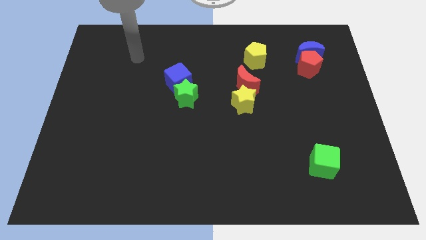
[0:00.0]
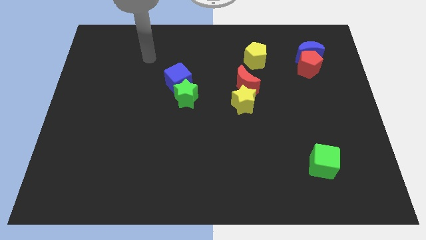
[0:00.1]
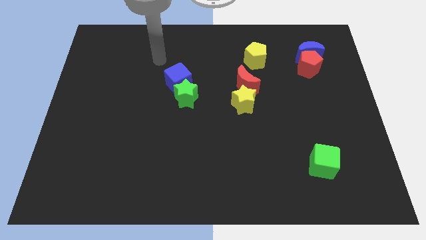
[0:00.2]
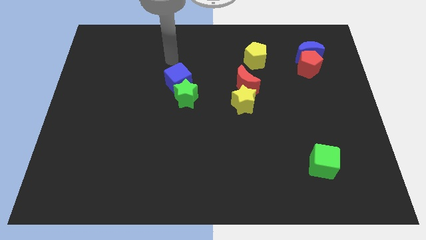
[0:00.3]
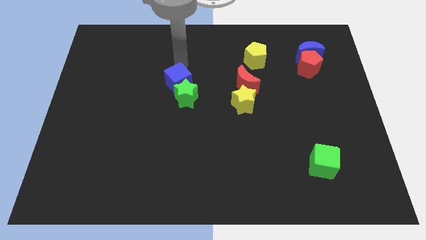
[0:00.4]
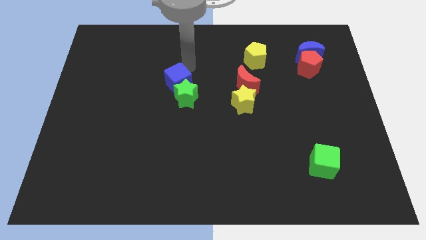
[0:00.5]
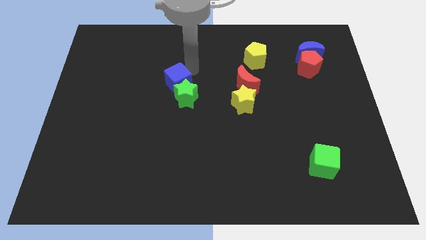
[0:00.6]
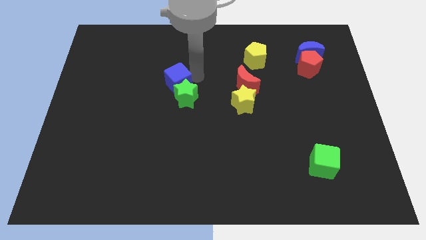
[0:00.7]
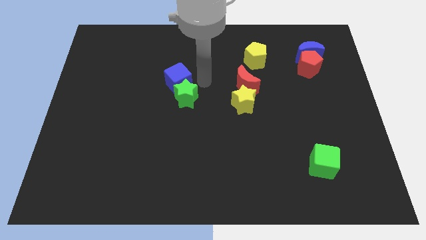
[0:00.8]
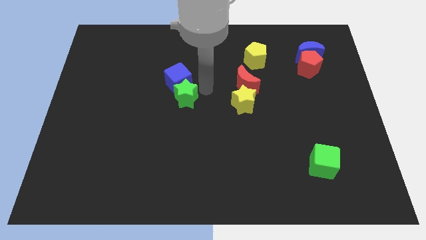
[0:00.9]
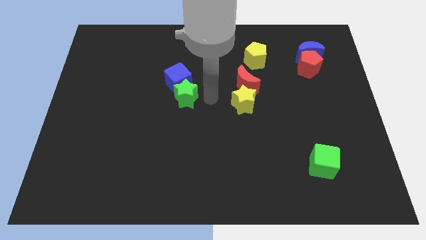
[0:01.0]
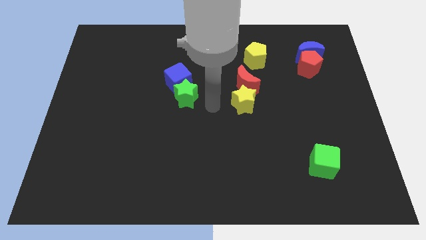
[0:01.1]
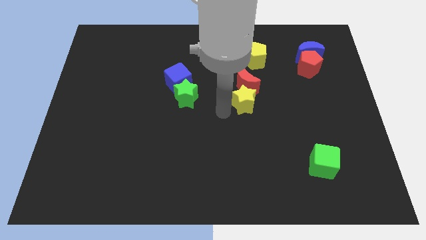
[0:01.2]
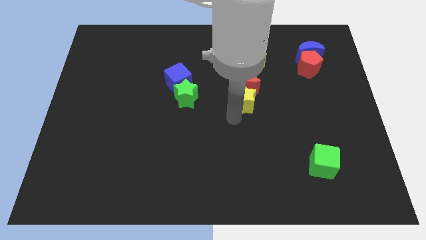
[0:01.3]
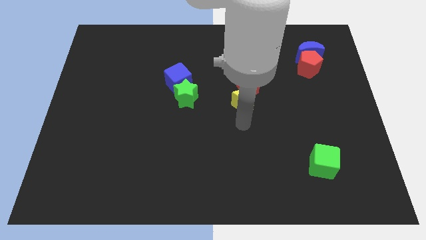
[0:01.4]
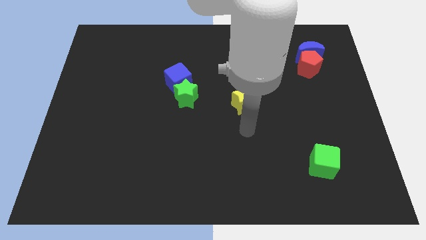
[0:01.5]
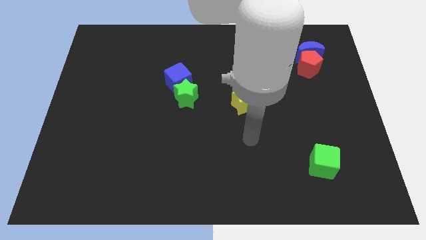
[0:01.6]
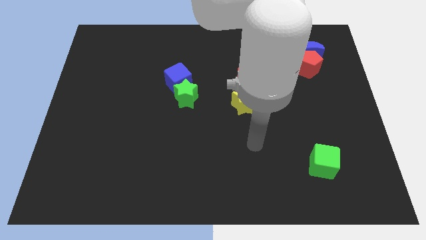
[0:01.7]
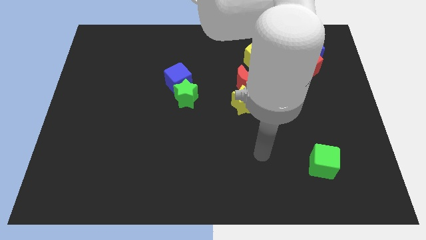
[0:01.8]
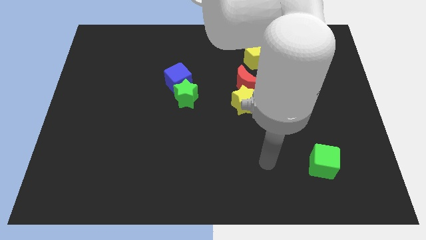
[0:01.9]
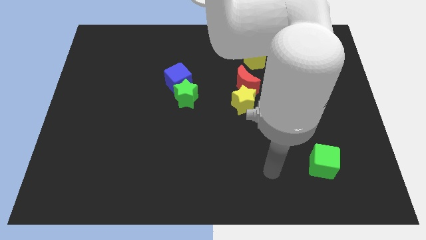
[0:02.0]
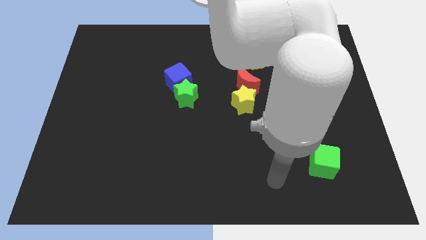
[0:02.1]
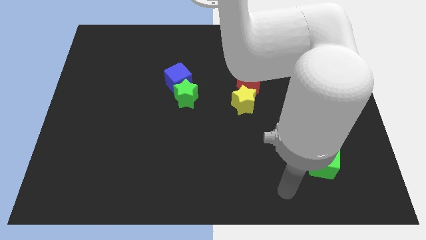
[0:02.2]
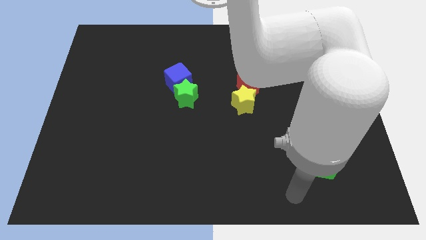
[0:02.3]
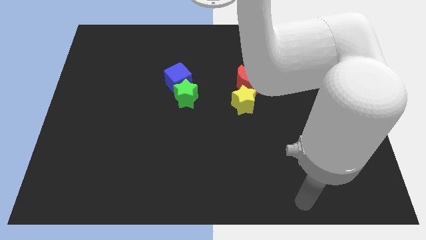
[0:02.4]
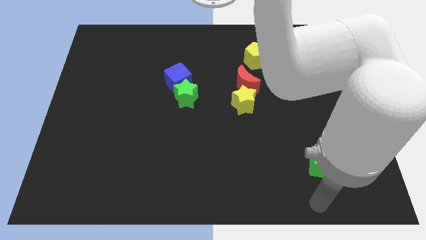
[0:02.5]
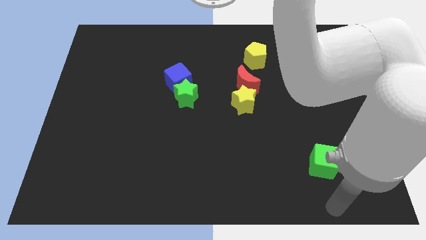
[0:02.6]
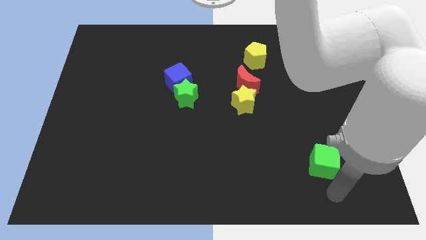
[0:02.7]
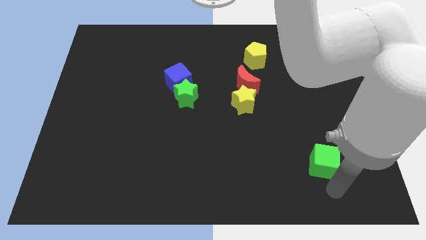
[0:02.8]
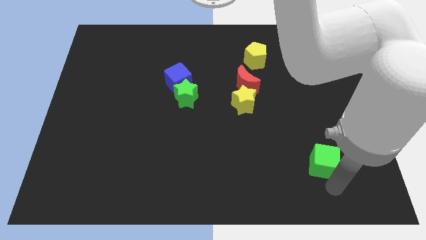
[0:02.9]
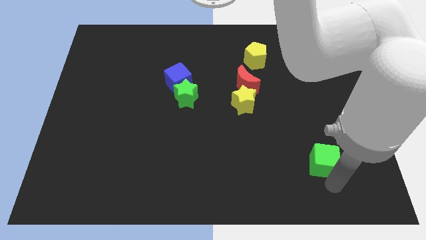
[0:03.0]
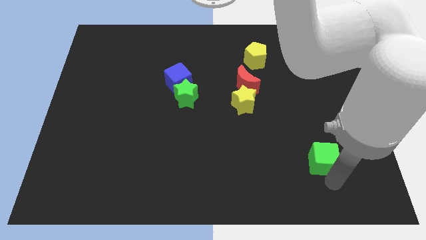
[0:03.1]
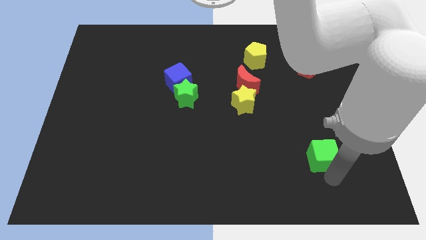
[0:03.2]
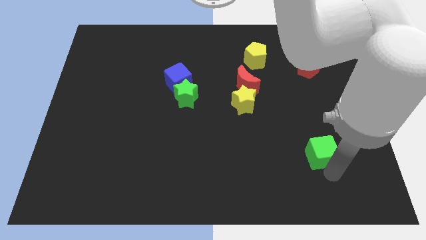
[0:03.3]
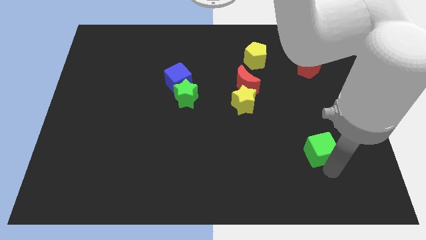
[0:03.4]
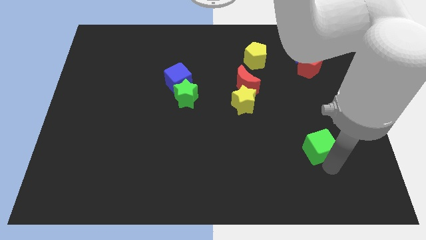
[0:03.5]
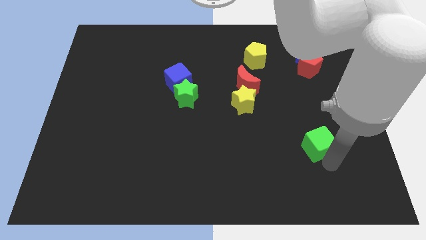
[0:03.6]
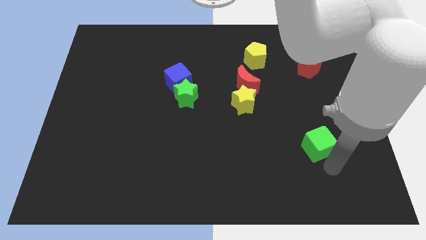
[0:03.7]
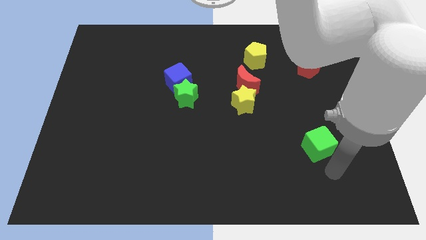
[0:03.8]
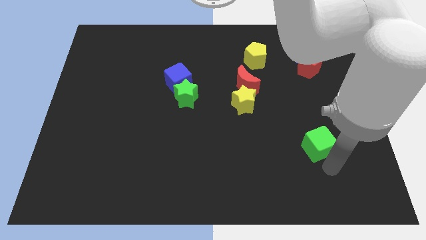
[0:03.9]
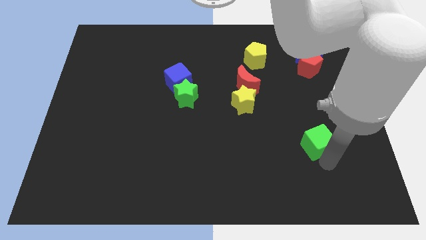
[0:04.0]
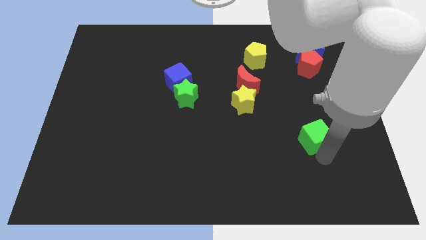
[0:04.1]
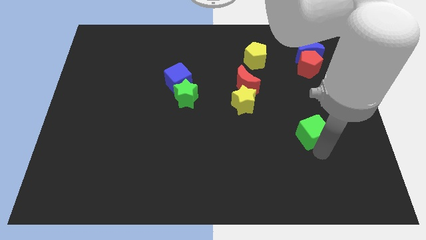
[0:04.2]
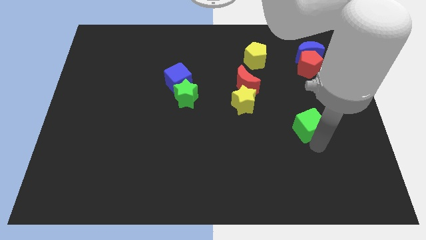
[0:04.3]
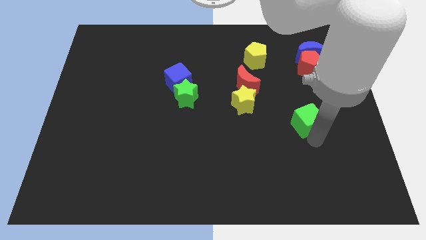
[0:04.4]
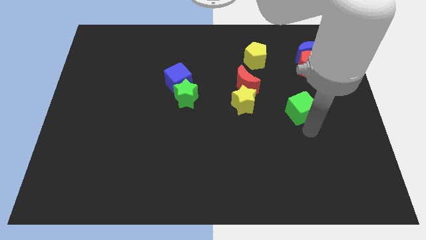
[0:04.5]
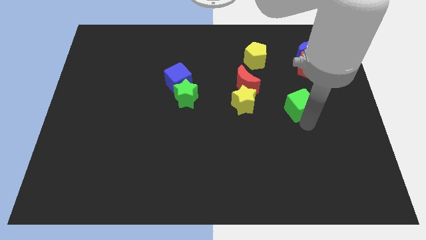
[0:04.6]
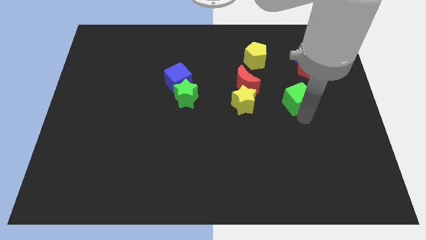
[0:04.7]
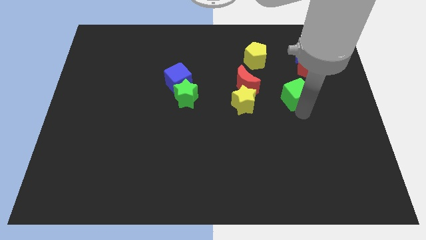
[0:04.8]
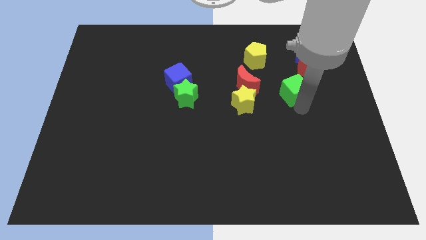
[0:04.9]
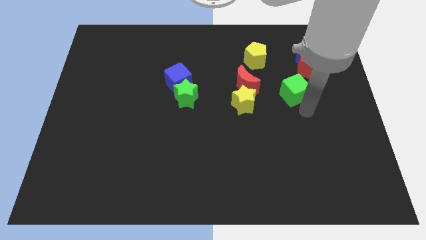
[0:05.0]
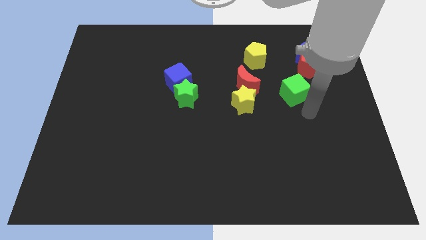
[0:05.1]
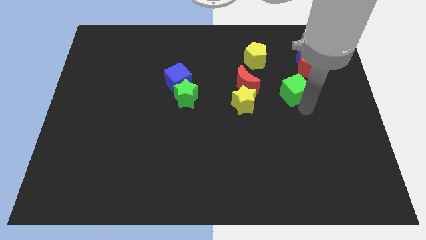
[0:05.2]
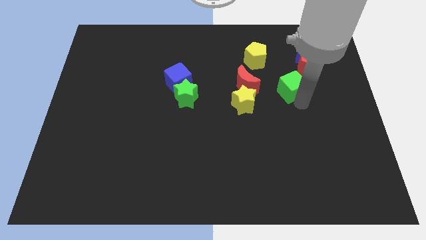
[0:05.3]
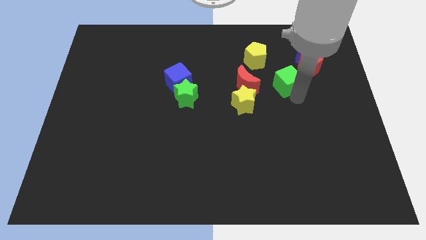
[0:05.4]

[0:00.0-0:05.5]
move the green cube diagonally down and to the right of the yellow pentagon

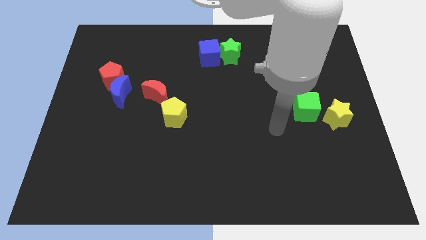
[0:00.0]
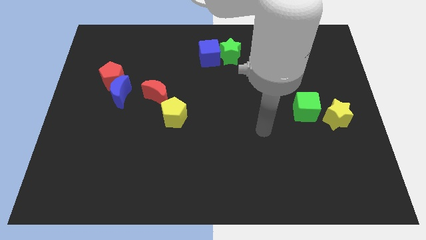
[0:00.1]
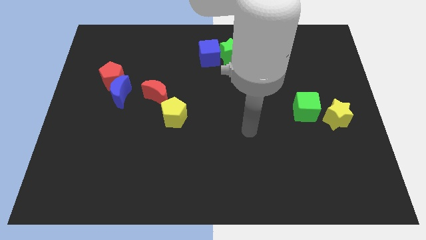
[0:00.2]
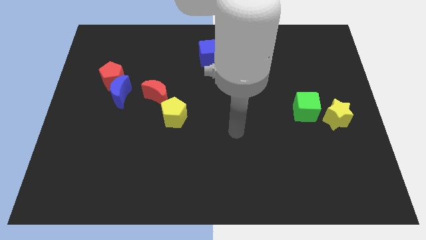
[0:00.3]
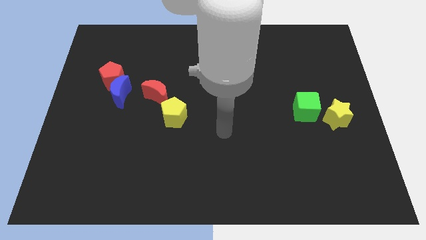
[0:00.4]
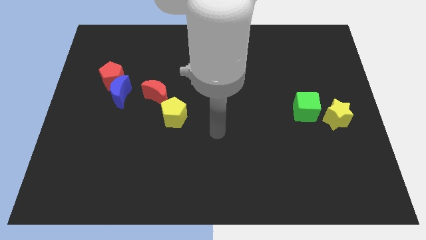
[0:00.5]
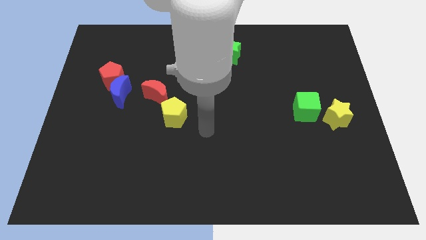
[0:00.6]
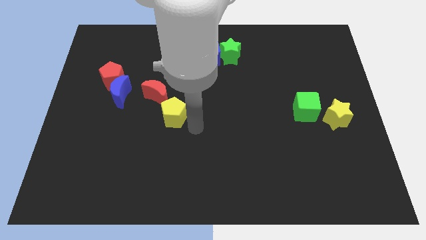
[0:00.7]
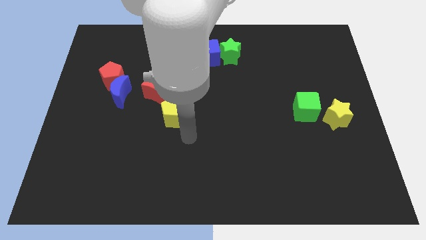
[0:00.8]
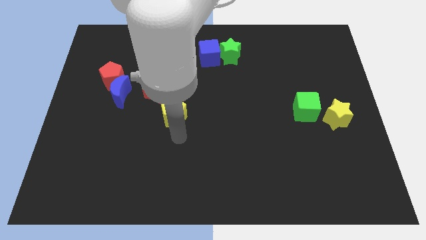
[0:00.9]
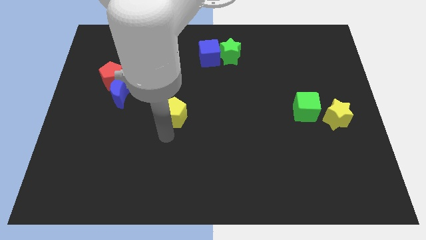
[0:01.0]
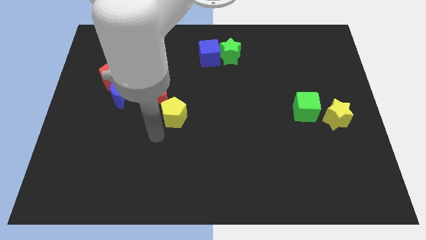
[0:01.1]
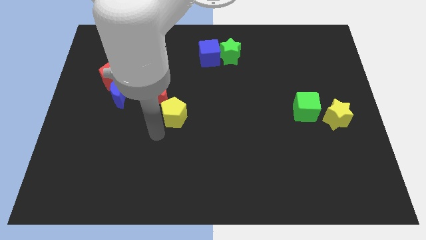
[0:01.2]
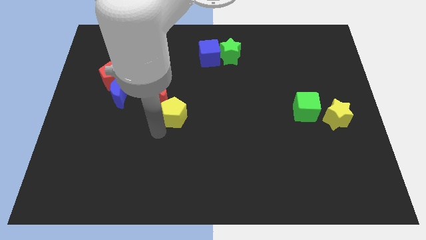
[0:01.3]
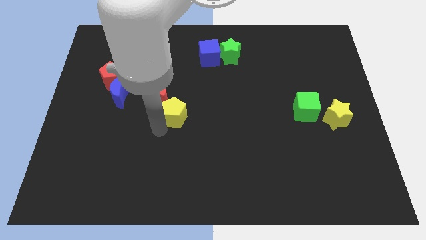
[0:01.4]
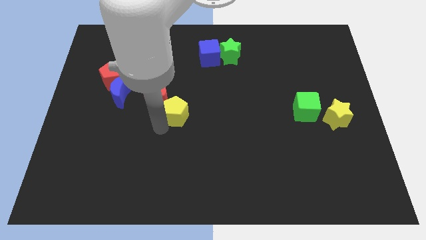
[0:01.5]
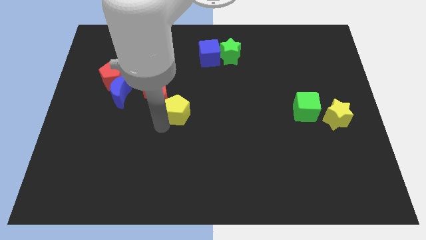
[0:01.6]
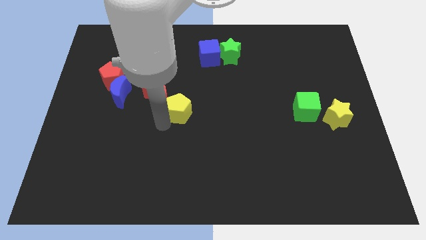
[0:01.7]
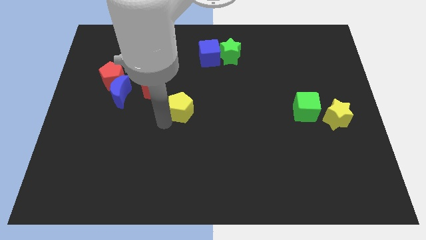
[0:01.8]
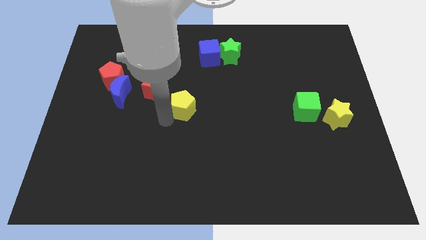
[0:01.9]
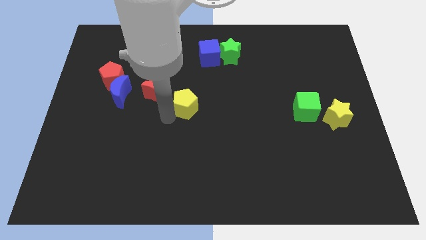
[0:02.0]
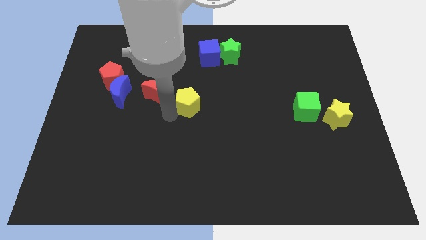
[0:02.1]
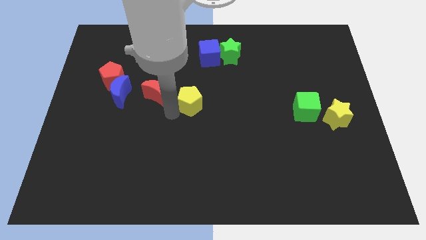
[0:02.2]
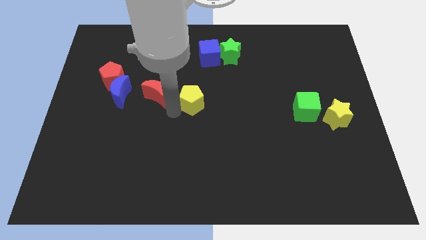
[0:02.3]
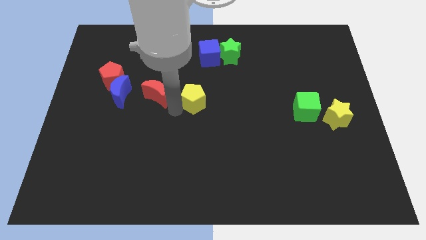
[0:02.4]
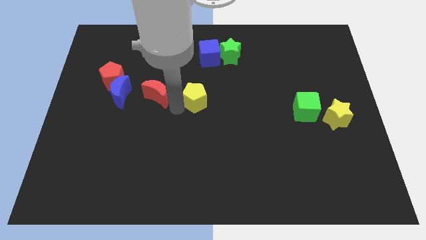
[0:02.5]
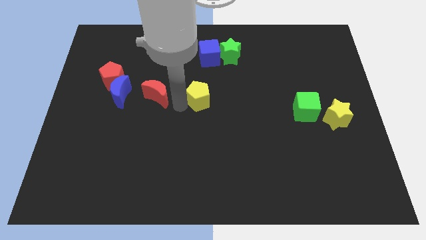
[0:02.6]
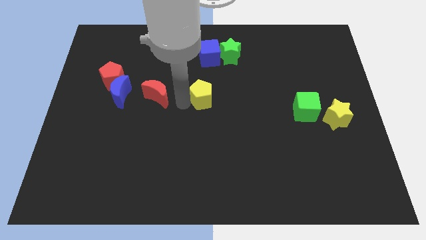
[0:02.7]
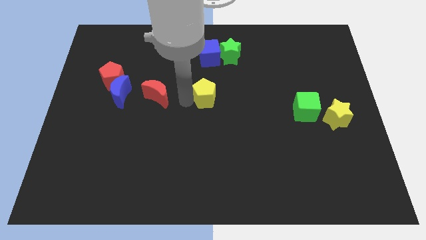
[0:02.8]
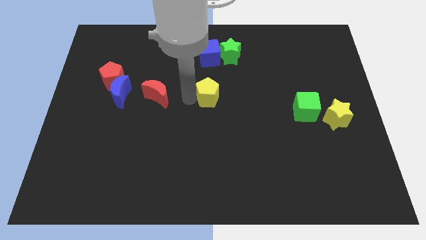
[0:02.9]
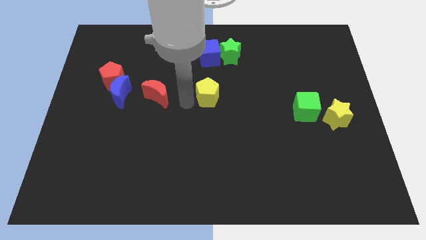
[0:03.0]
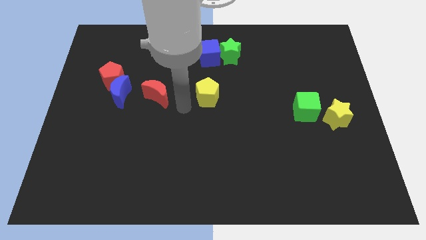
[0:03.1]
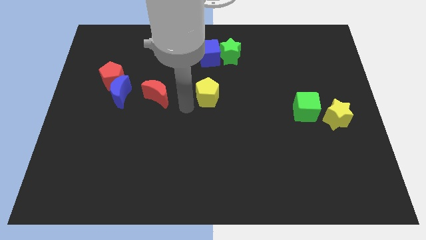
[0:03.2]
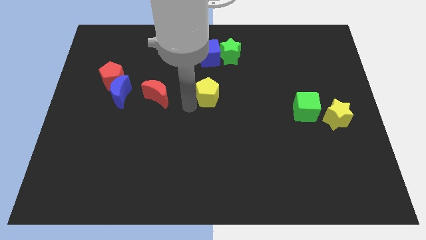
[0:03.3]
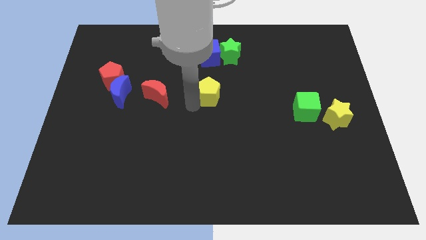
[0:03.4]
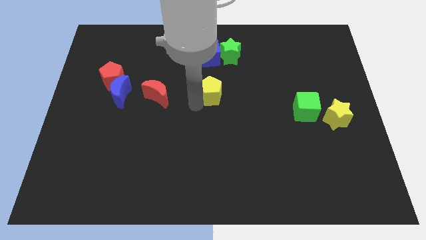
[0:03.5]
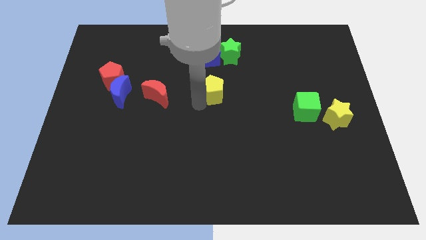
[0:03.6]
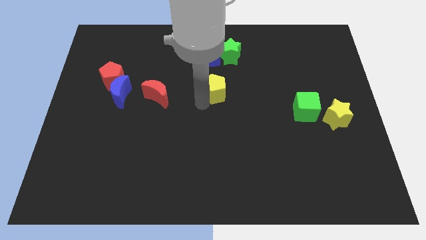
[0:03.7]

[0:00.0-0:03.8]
push the yellow pentagon to the bottom of the green star
